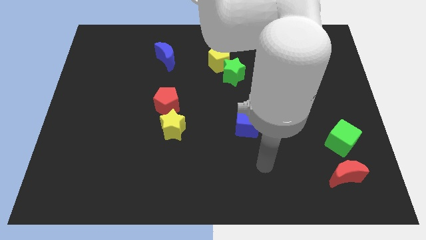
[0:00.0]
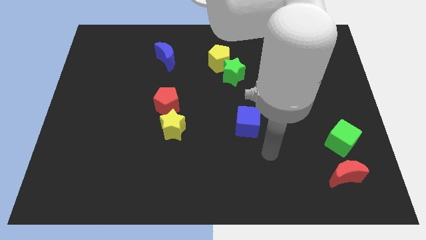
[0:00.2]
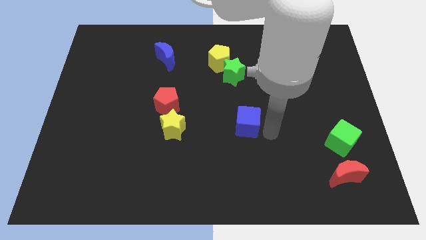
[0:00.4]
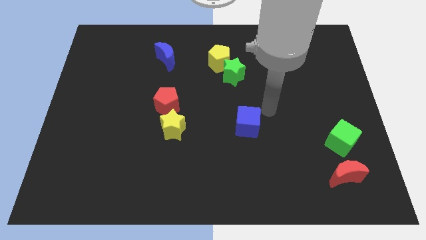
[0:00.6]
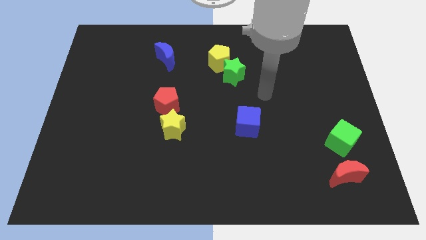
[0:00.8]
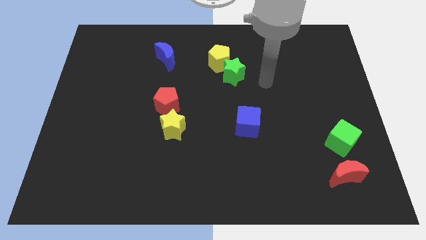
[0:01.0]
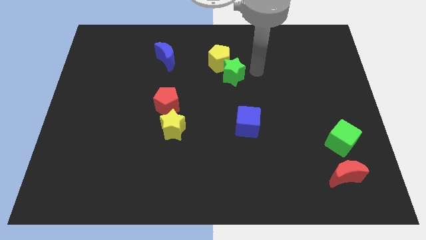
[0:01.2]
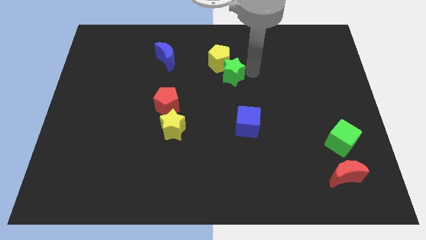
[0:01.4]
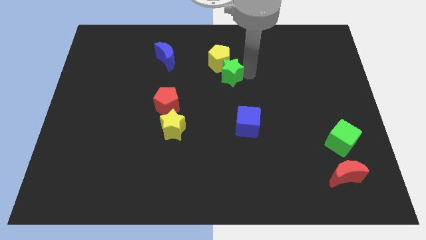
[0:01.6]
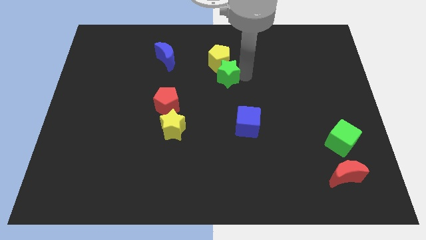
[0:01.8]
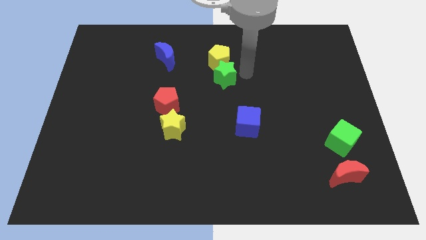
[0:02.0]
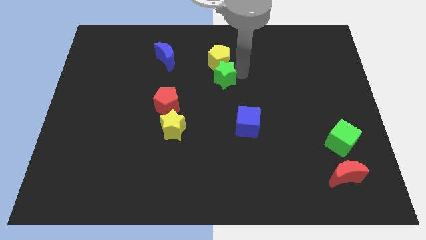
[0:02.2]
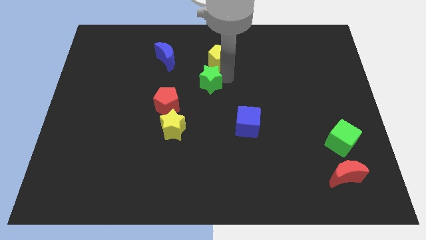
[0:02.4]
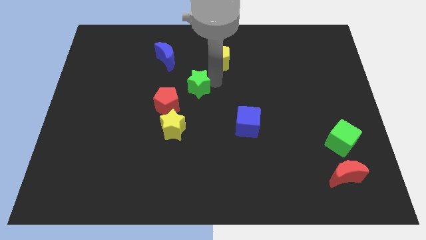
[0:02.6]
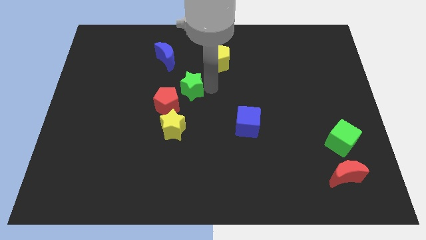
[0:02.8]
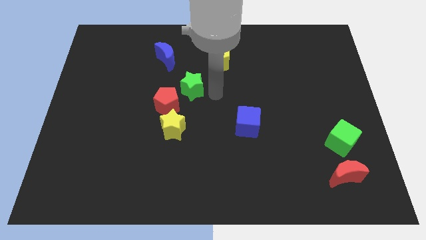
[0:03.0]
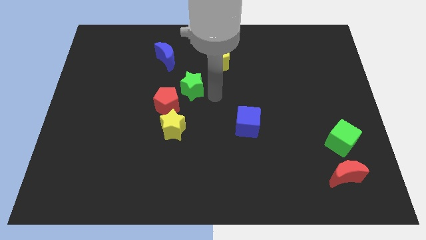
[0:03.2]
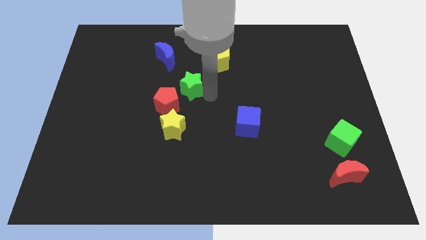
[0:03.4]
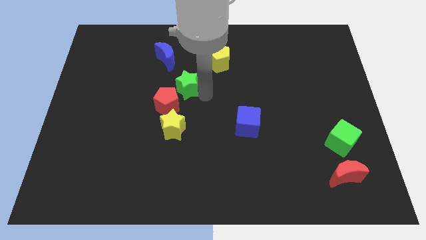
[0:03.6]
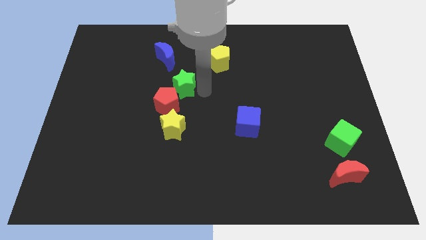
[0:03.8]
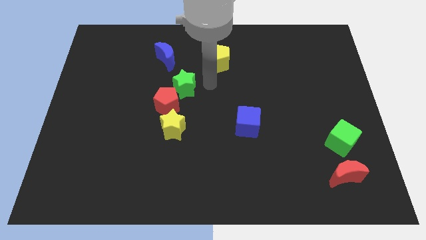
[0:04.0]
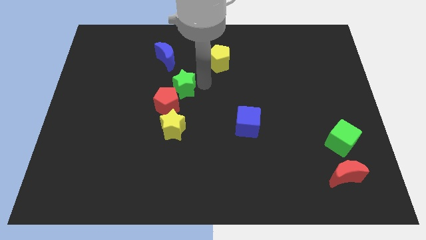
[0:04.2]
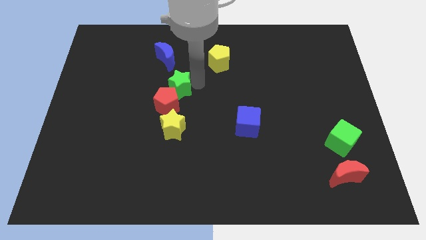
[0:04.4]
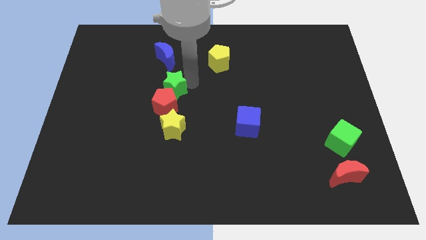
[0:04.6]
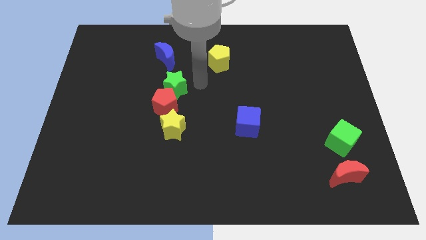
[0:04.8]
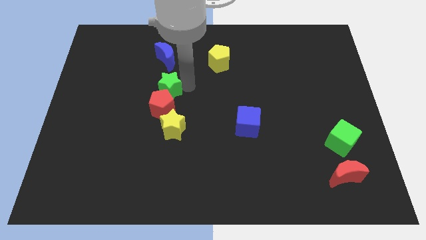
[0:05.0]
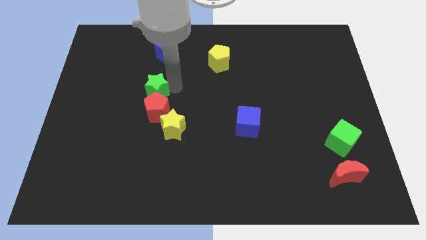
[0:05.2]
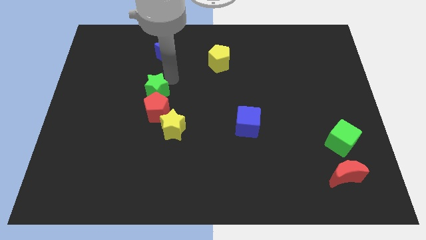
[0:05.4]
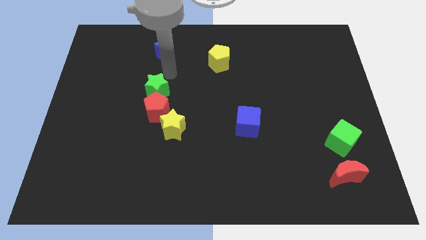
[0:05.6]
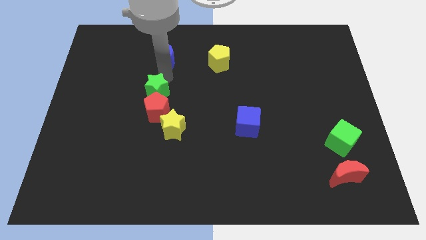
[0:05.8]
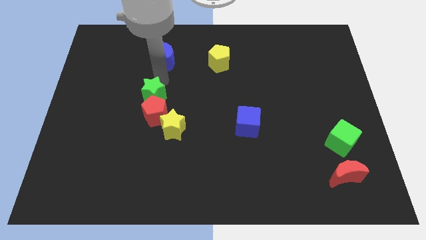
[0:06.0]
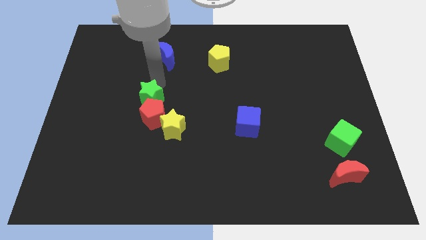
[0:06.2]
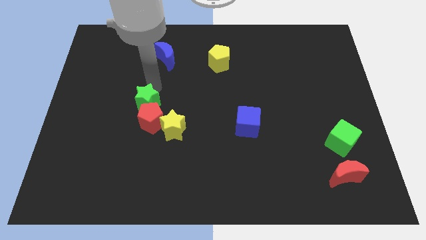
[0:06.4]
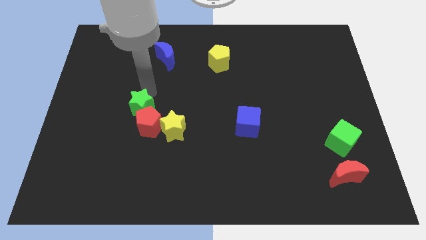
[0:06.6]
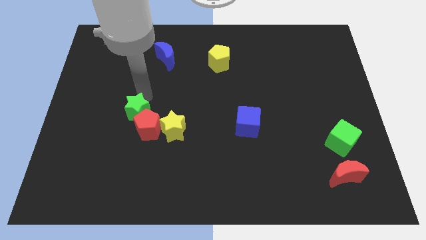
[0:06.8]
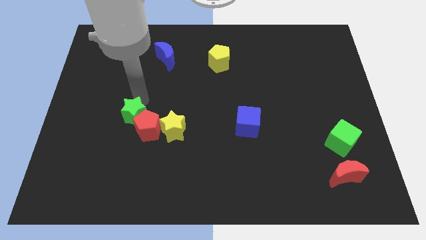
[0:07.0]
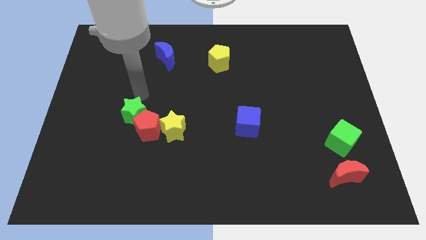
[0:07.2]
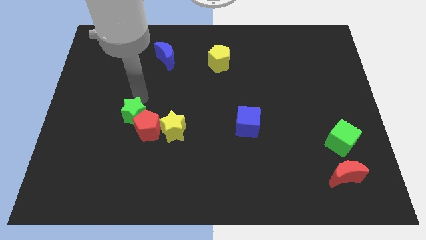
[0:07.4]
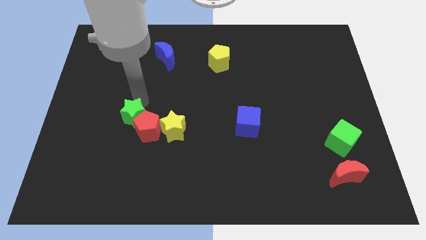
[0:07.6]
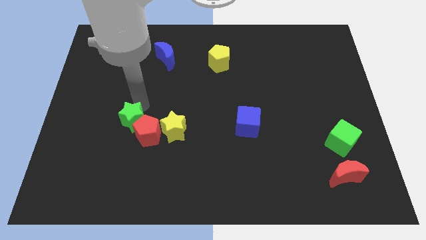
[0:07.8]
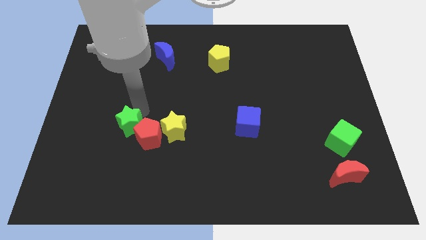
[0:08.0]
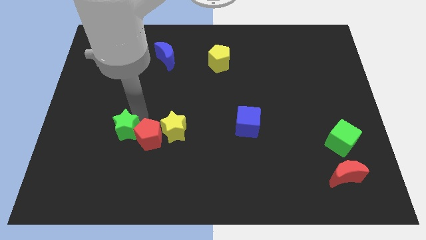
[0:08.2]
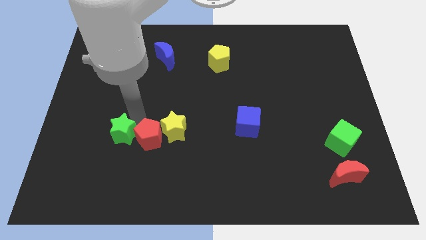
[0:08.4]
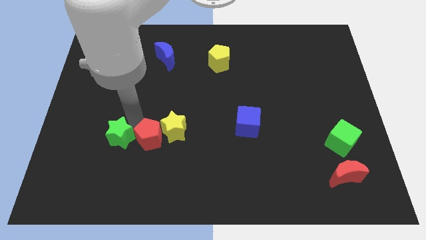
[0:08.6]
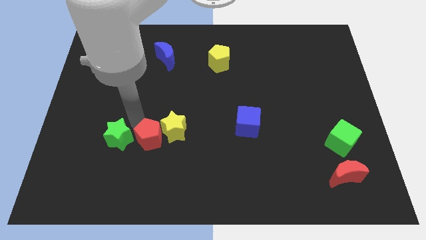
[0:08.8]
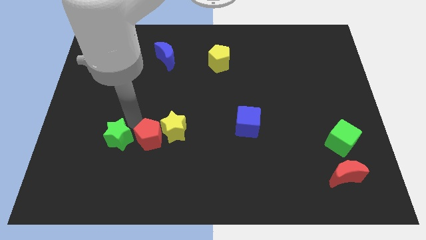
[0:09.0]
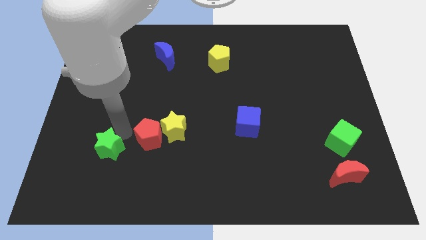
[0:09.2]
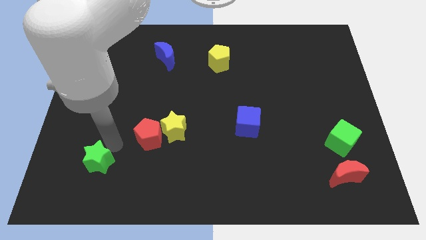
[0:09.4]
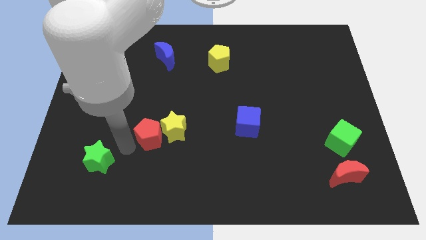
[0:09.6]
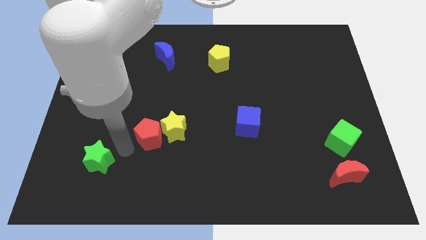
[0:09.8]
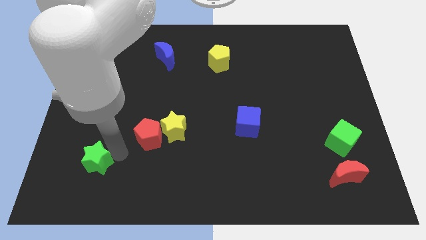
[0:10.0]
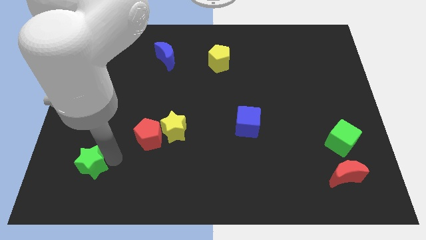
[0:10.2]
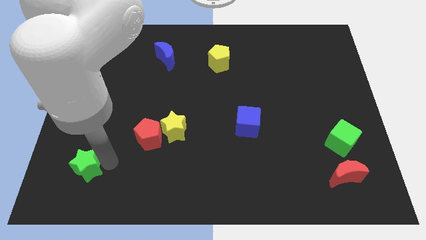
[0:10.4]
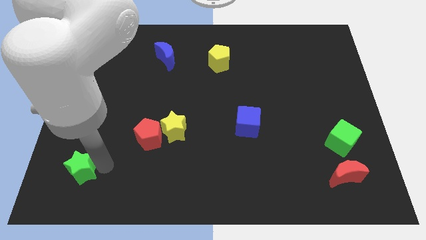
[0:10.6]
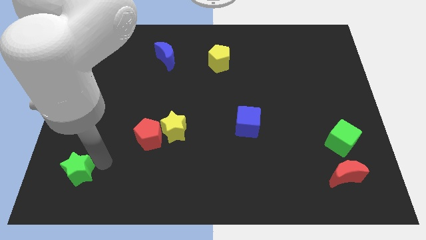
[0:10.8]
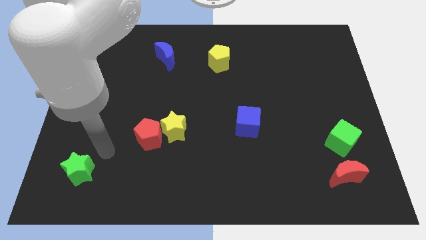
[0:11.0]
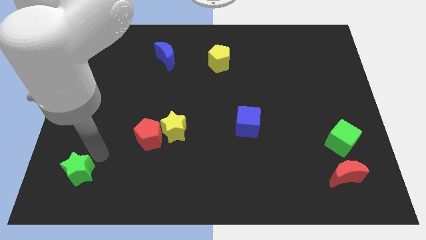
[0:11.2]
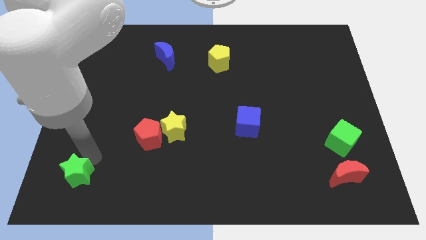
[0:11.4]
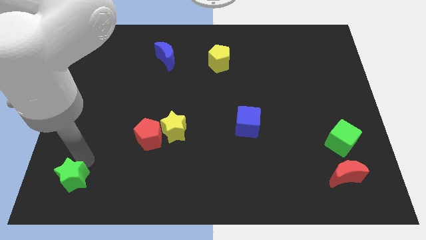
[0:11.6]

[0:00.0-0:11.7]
slide the green star to the lower left corner

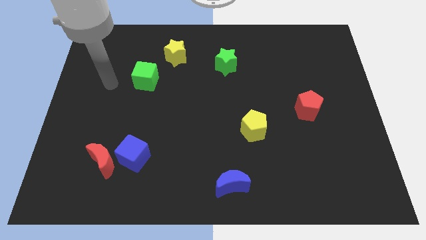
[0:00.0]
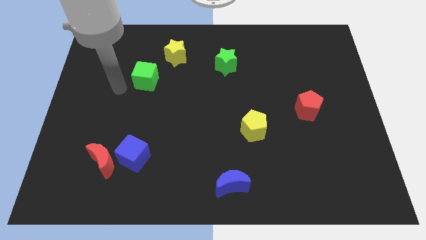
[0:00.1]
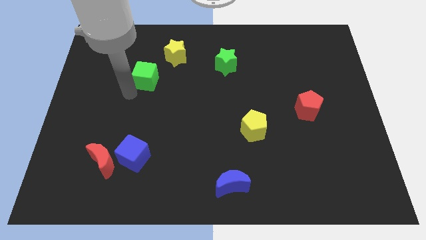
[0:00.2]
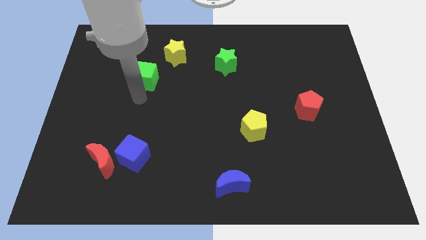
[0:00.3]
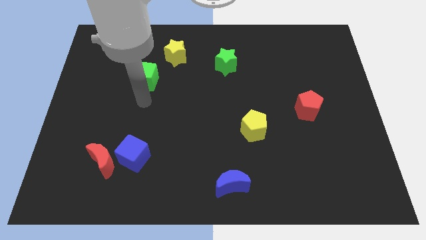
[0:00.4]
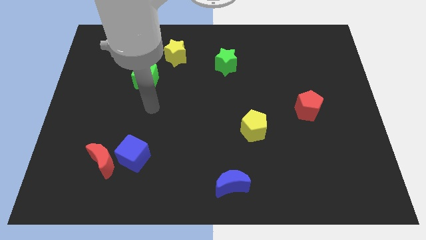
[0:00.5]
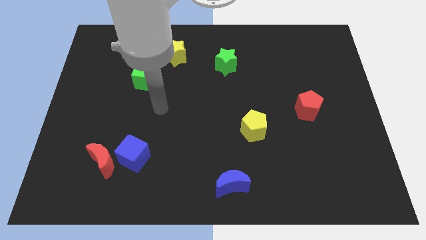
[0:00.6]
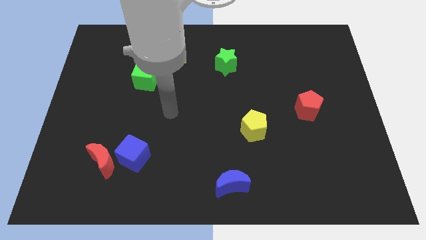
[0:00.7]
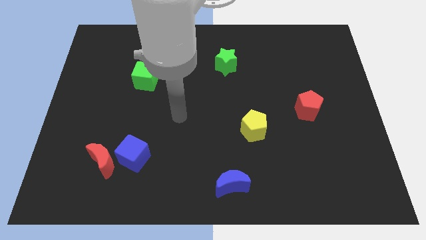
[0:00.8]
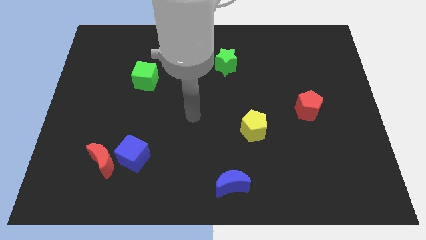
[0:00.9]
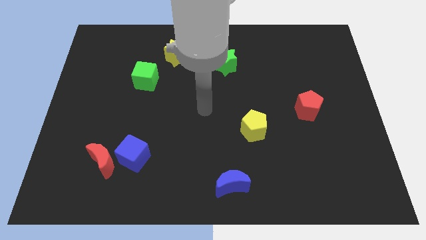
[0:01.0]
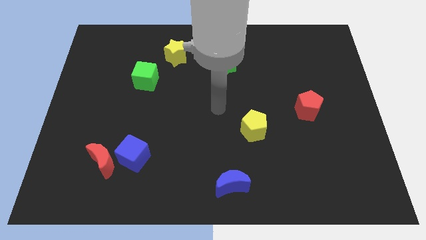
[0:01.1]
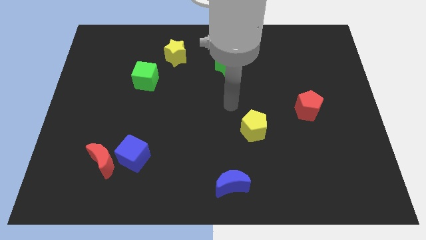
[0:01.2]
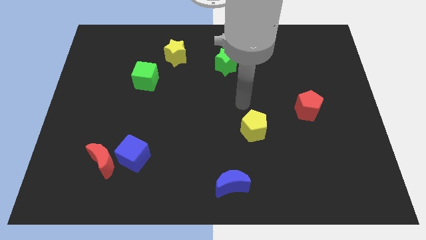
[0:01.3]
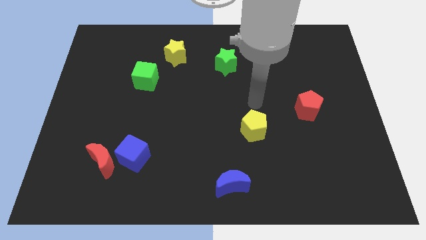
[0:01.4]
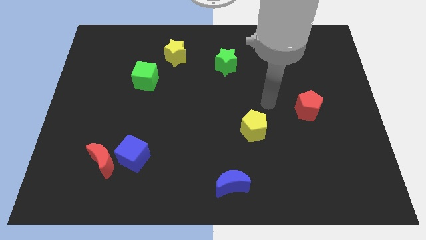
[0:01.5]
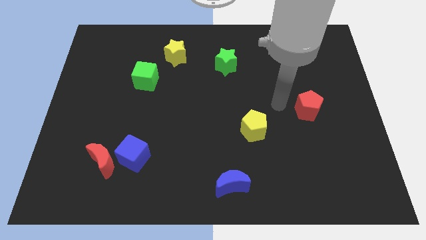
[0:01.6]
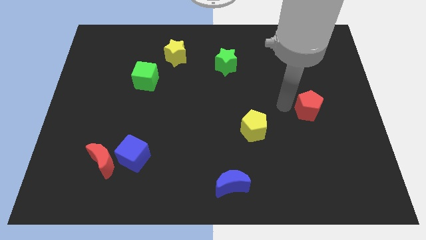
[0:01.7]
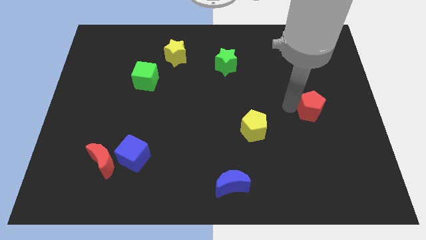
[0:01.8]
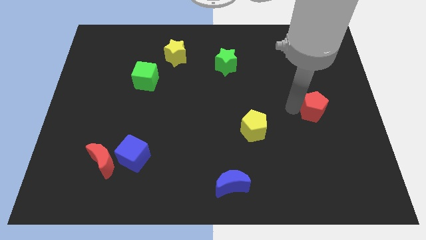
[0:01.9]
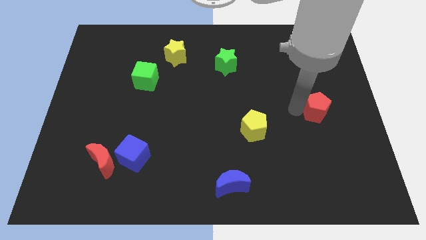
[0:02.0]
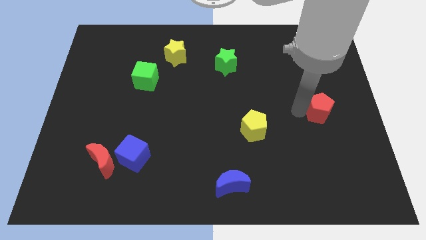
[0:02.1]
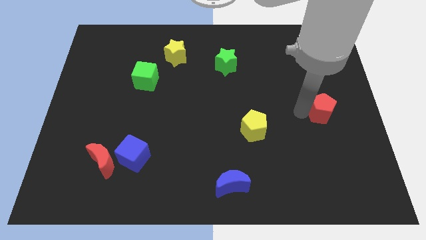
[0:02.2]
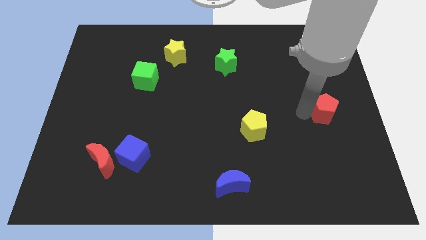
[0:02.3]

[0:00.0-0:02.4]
push the red pentagon to the right side
